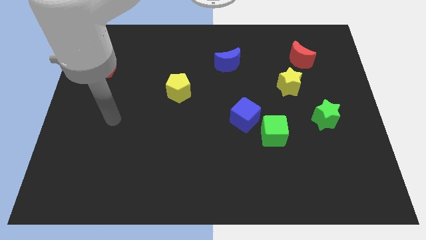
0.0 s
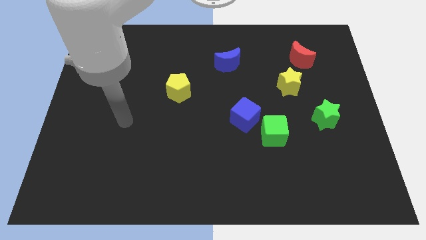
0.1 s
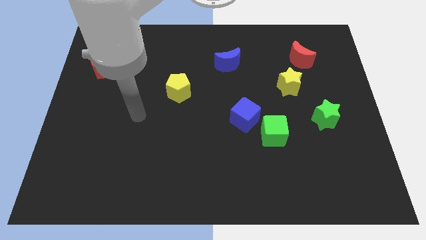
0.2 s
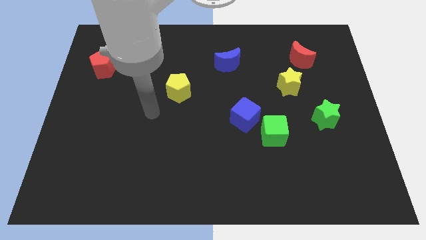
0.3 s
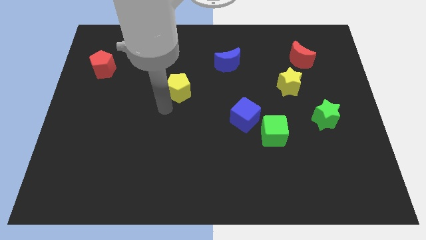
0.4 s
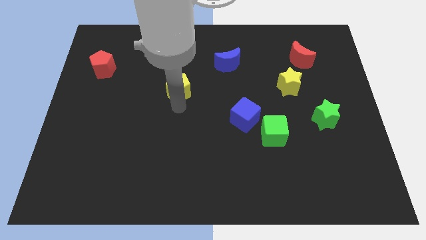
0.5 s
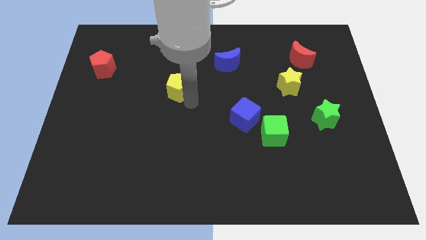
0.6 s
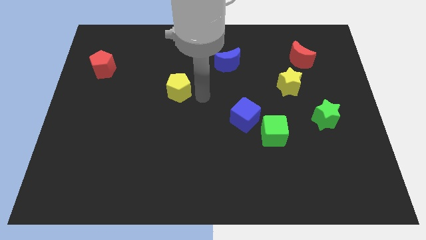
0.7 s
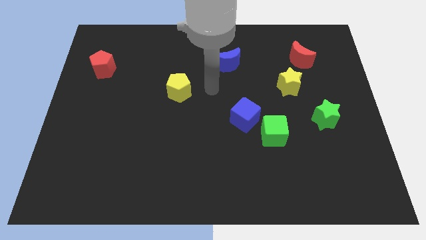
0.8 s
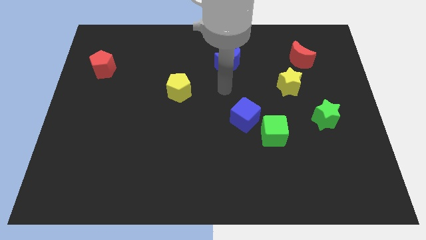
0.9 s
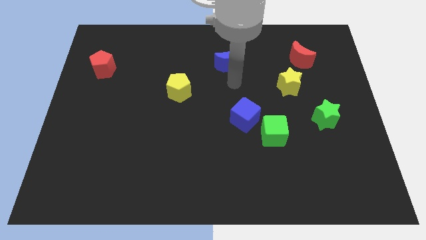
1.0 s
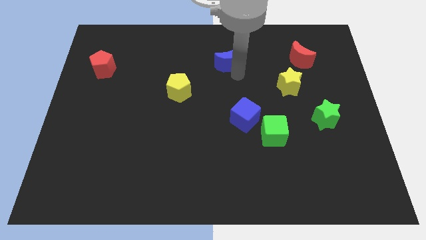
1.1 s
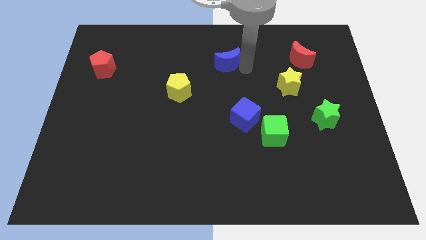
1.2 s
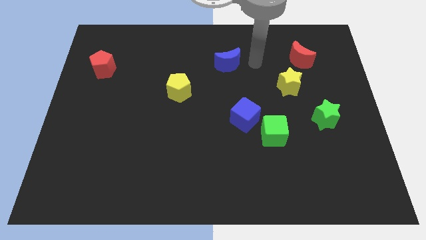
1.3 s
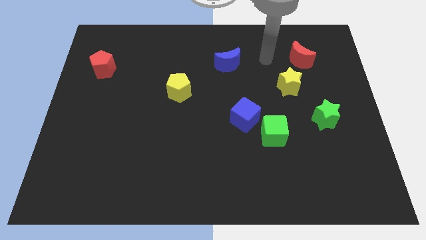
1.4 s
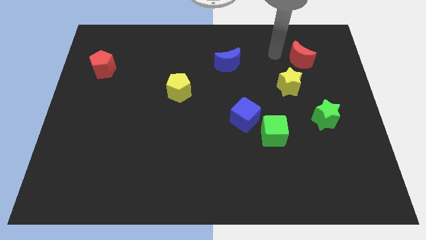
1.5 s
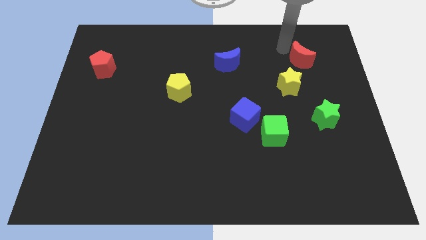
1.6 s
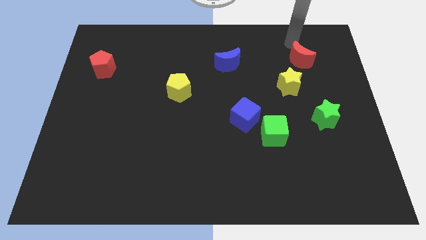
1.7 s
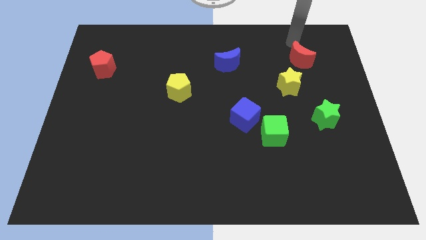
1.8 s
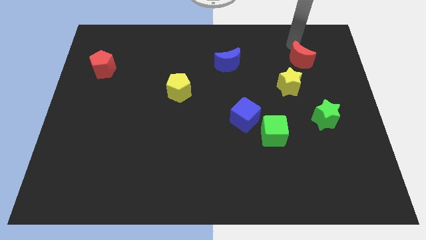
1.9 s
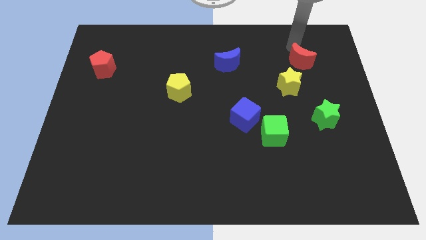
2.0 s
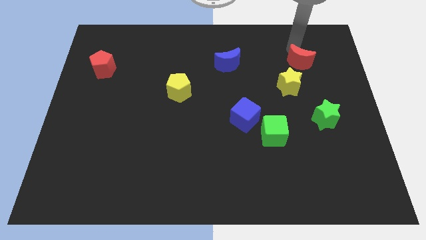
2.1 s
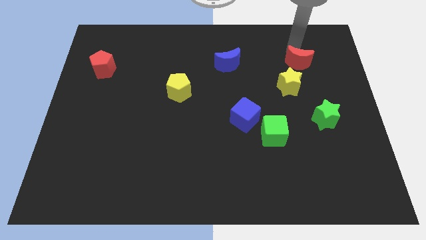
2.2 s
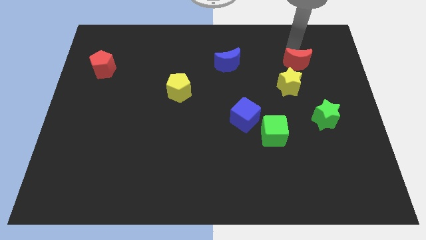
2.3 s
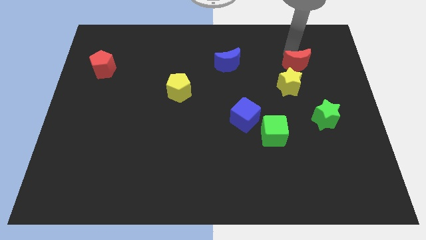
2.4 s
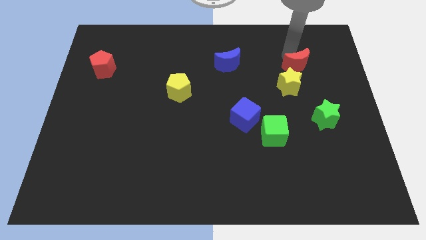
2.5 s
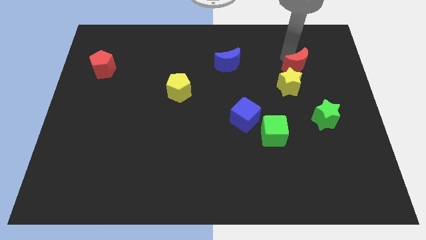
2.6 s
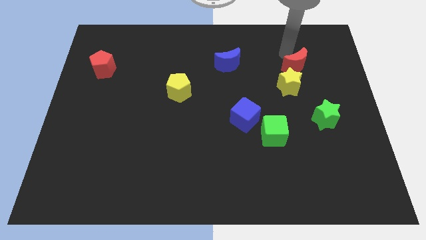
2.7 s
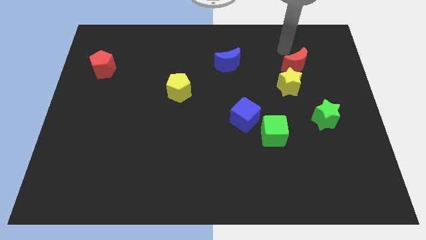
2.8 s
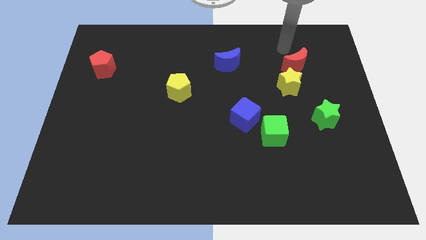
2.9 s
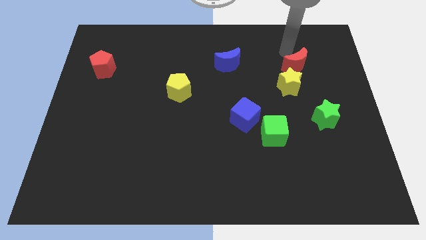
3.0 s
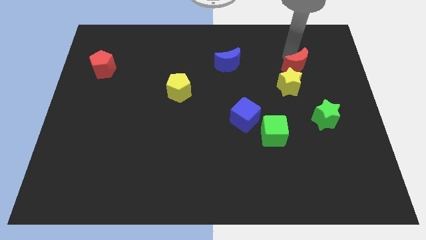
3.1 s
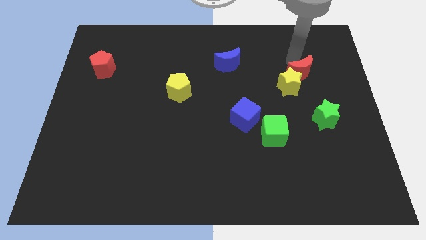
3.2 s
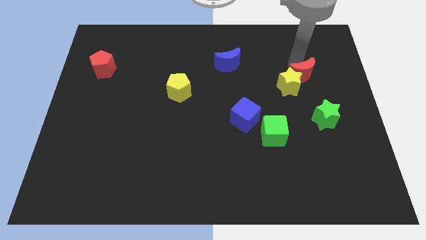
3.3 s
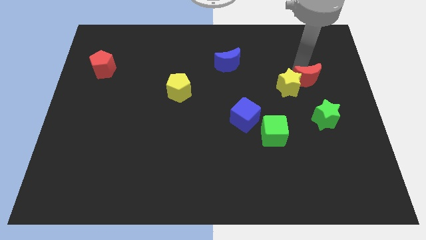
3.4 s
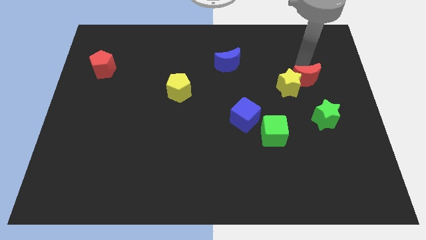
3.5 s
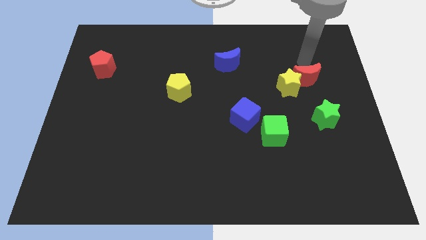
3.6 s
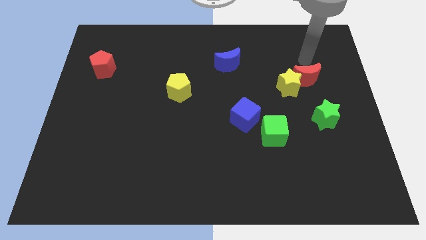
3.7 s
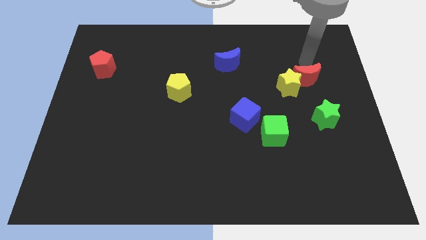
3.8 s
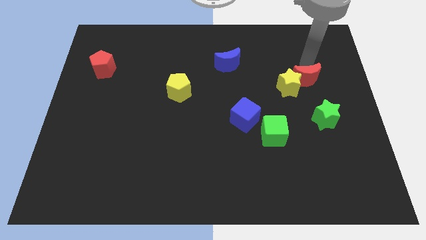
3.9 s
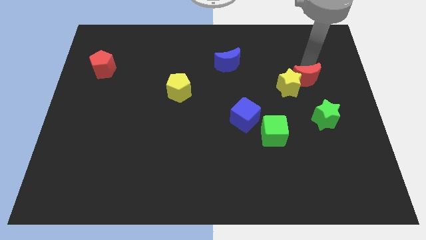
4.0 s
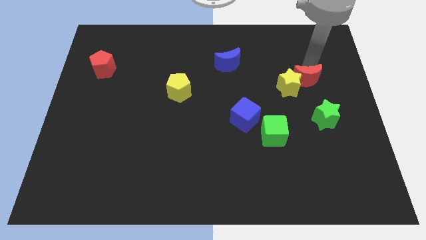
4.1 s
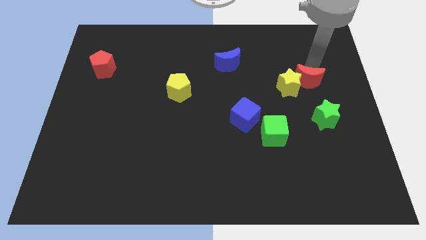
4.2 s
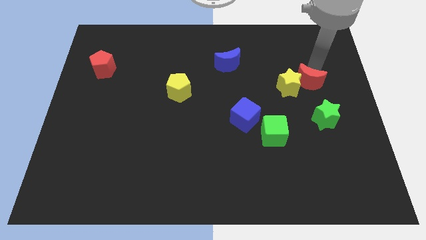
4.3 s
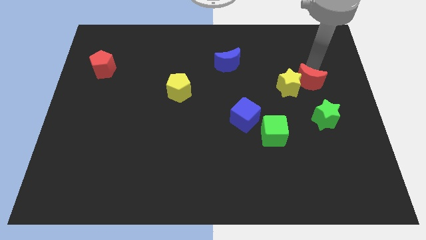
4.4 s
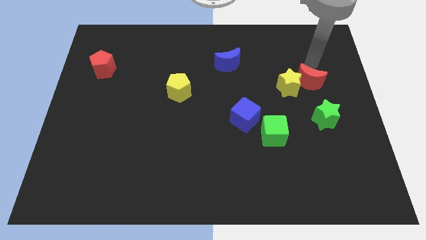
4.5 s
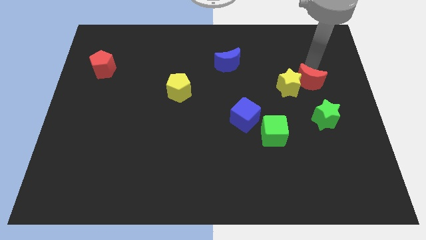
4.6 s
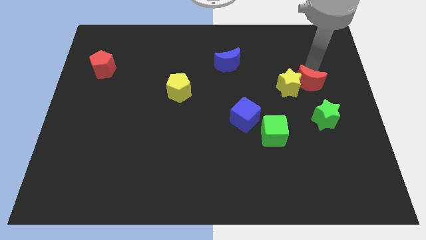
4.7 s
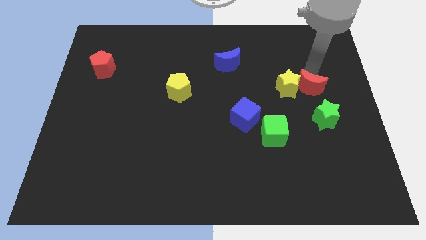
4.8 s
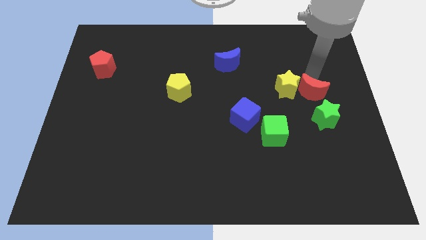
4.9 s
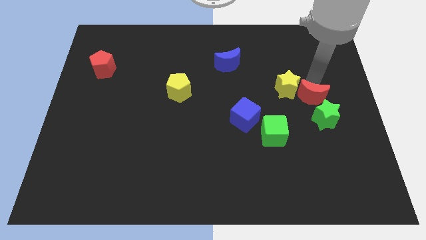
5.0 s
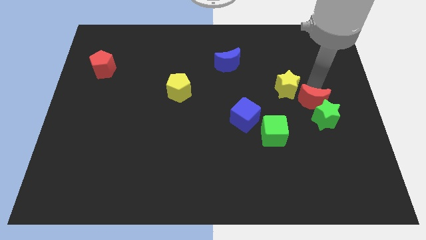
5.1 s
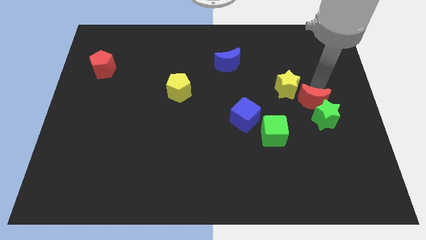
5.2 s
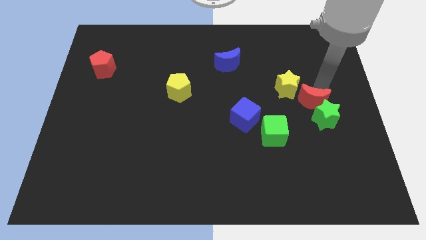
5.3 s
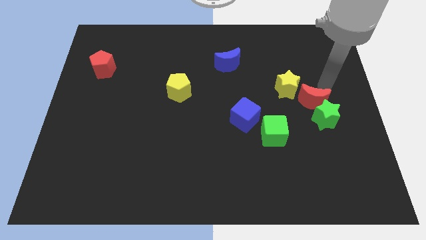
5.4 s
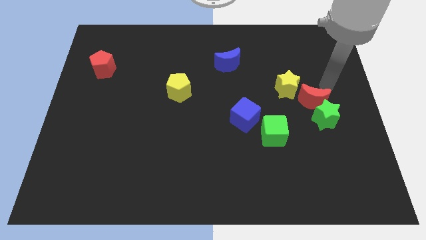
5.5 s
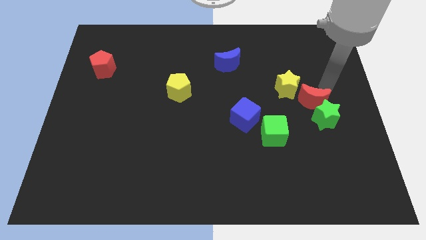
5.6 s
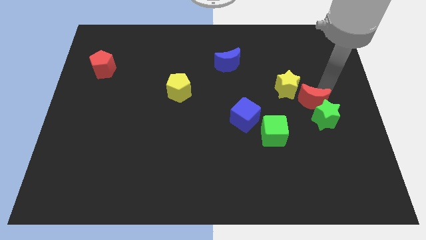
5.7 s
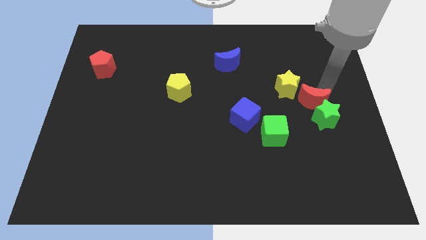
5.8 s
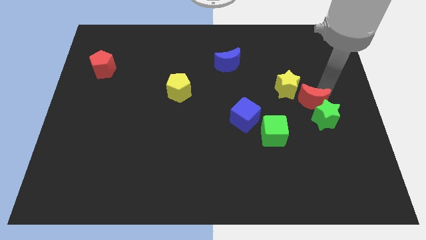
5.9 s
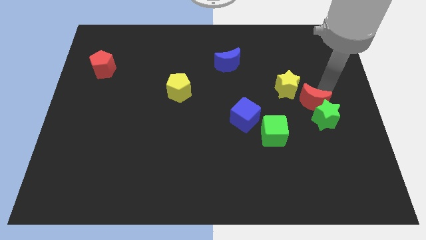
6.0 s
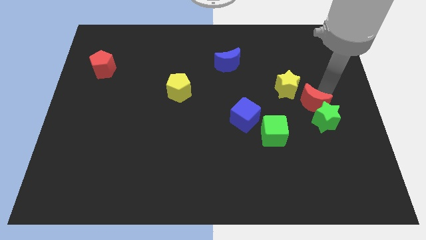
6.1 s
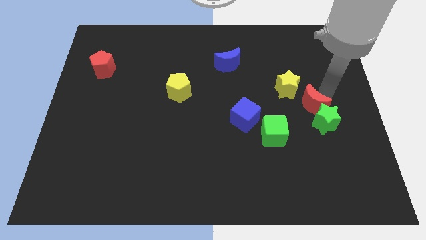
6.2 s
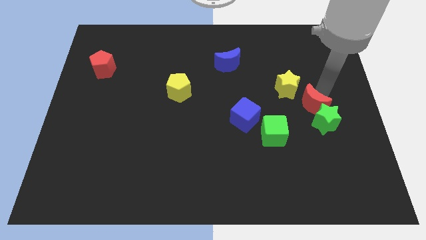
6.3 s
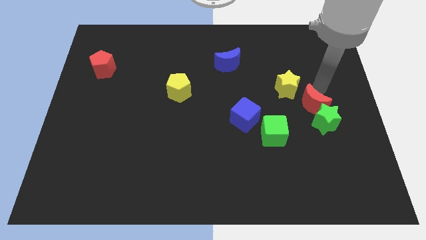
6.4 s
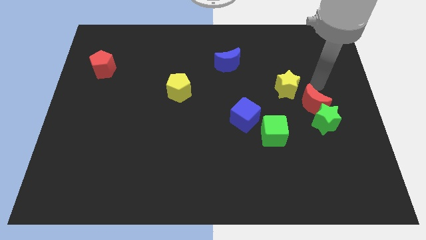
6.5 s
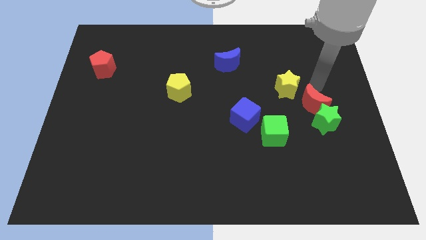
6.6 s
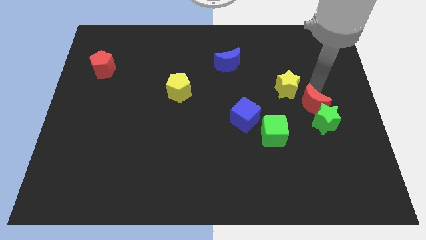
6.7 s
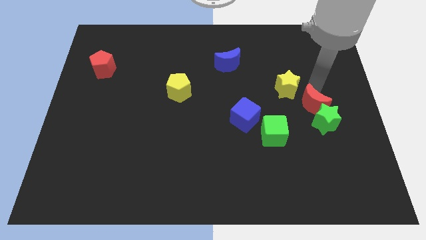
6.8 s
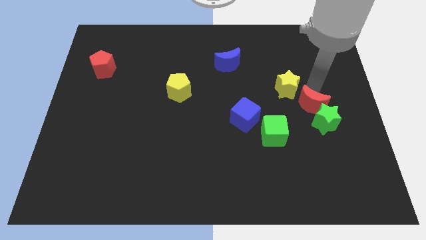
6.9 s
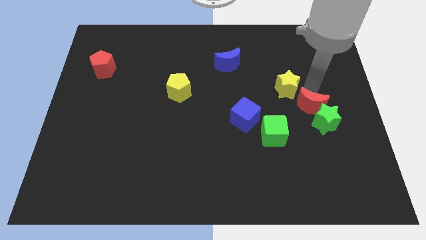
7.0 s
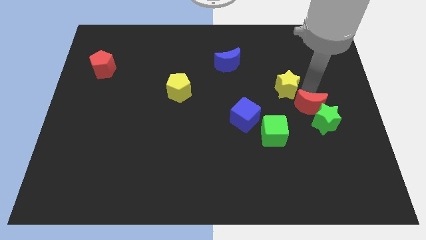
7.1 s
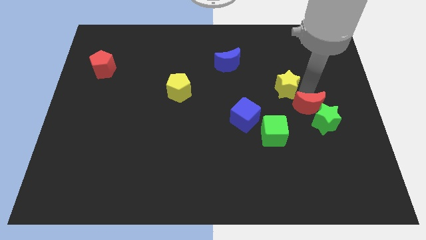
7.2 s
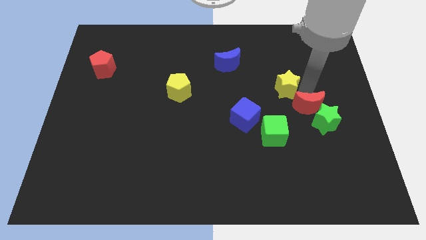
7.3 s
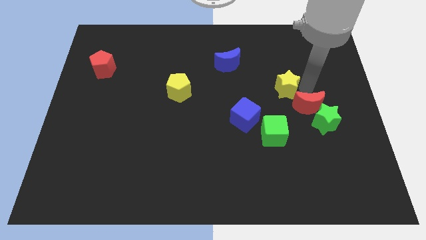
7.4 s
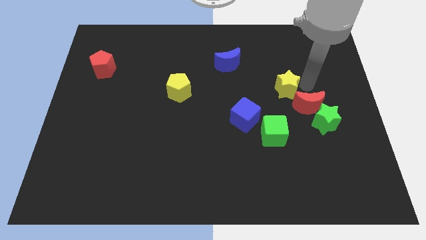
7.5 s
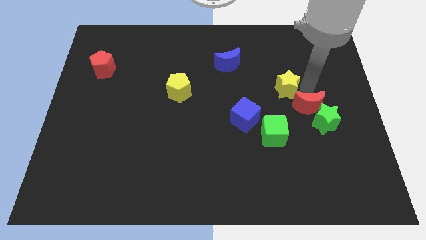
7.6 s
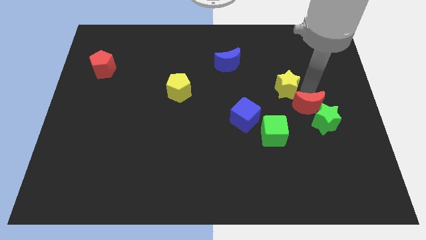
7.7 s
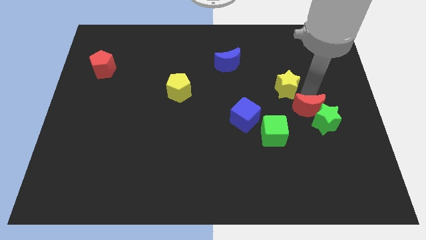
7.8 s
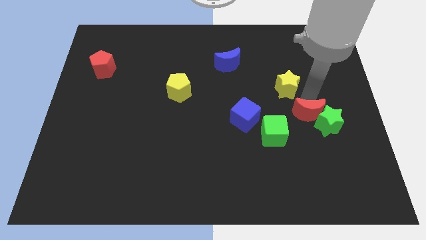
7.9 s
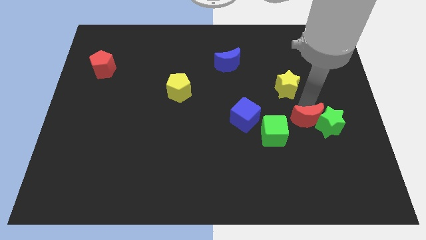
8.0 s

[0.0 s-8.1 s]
slide the red moon just right of the green cube
